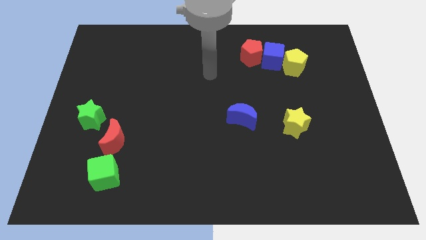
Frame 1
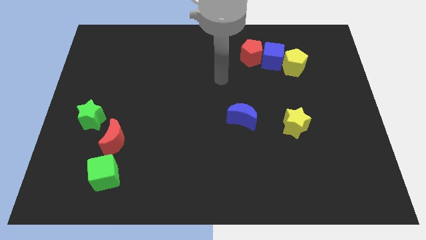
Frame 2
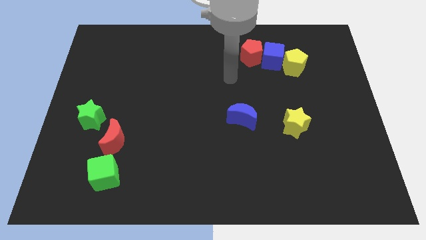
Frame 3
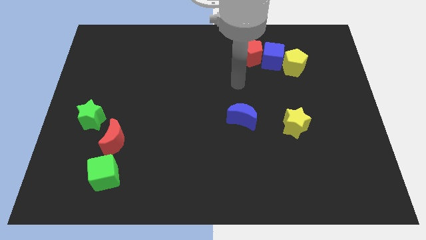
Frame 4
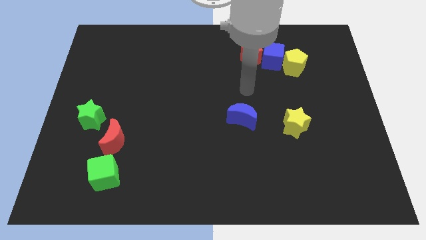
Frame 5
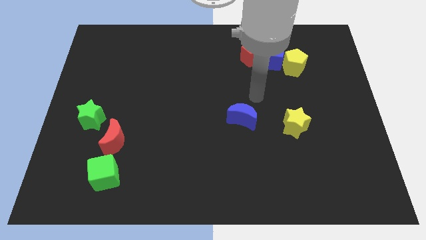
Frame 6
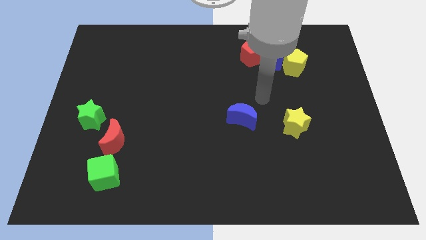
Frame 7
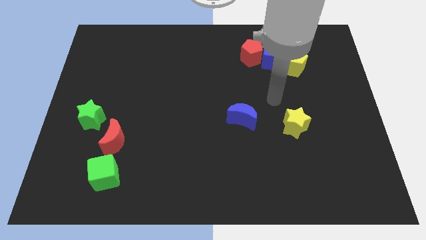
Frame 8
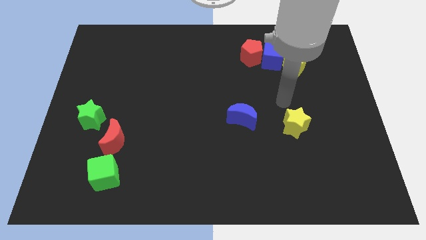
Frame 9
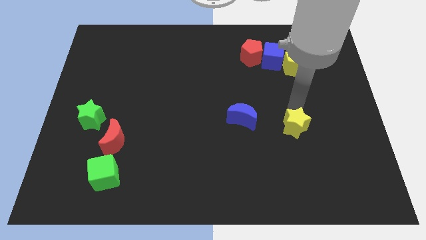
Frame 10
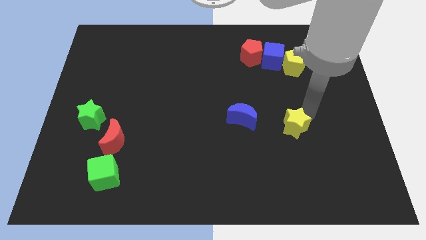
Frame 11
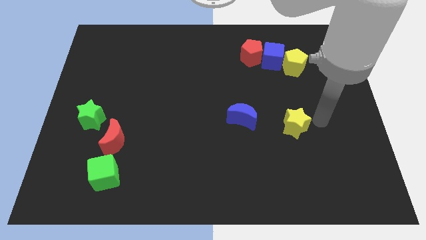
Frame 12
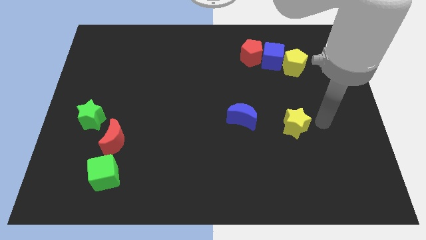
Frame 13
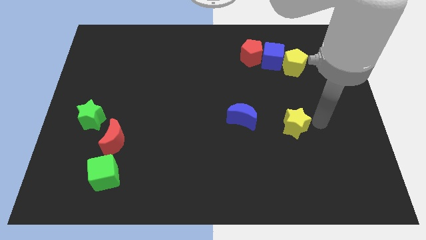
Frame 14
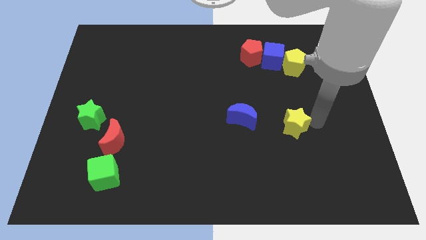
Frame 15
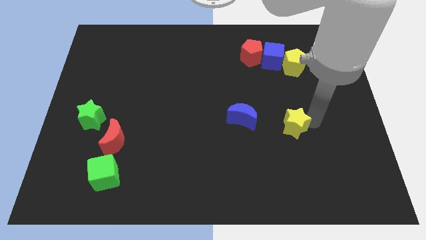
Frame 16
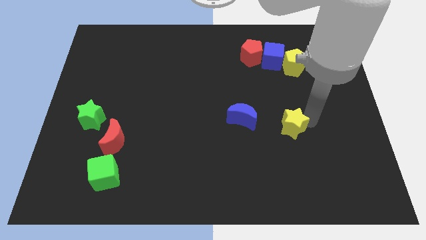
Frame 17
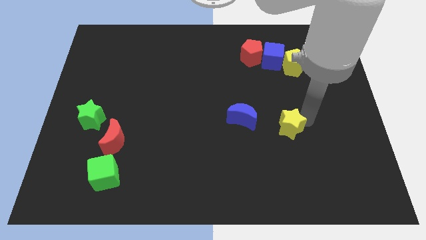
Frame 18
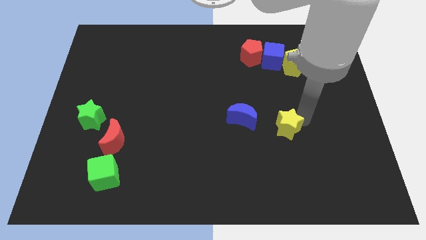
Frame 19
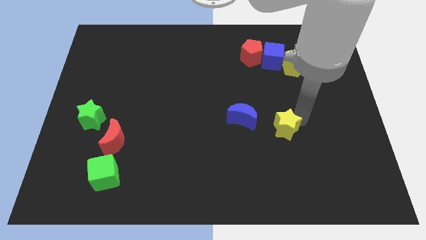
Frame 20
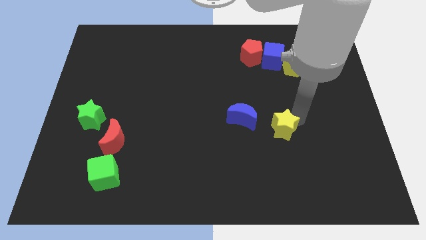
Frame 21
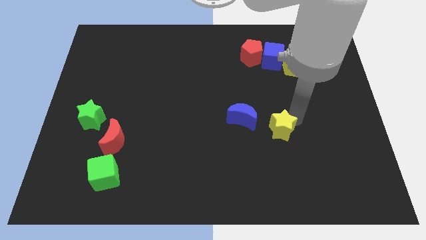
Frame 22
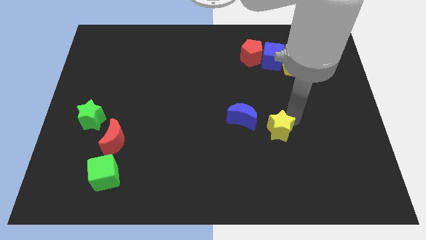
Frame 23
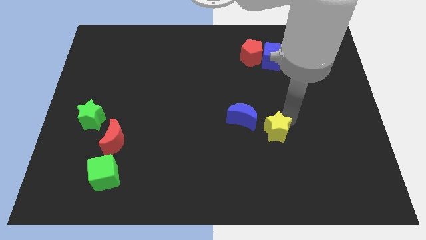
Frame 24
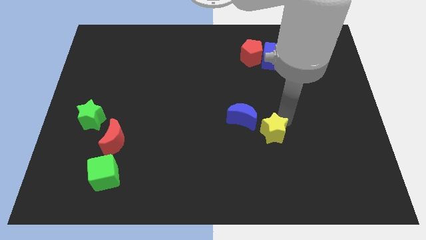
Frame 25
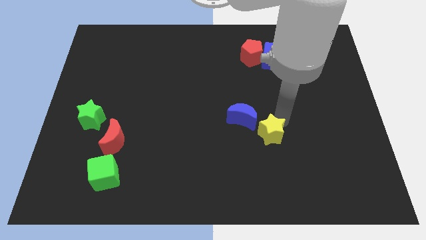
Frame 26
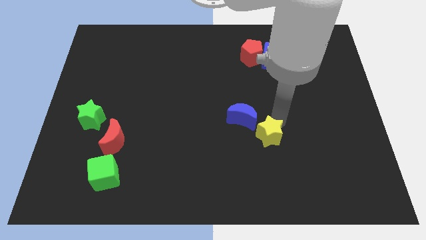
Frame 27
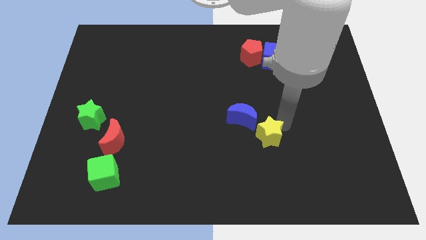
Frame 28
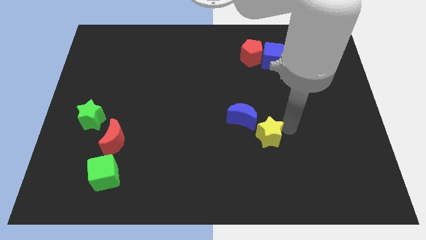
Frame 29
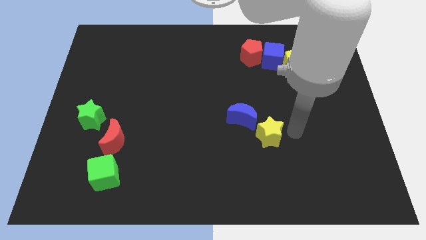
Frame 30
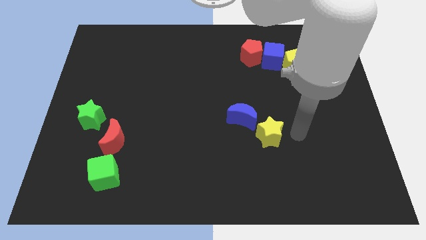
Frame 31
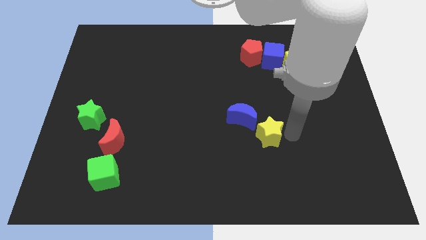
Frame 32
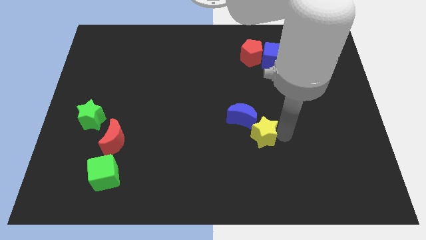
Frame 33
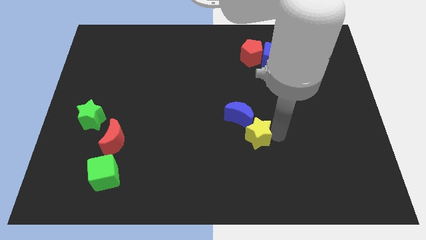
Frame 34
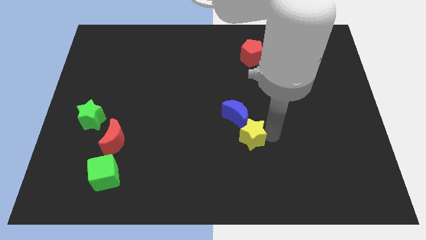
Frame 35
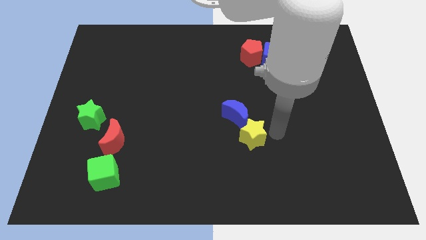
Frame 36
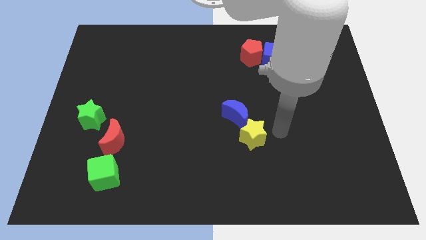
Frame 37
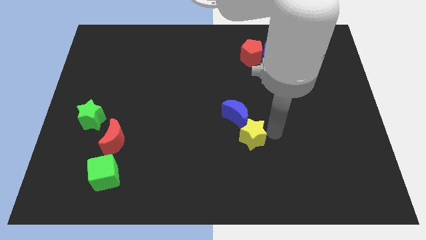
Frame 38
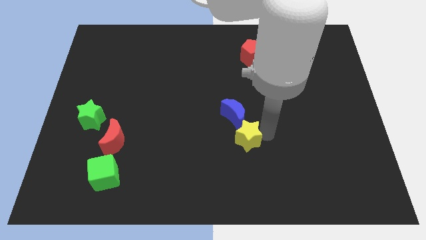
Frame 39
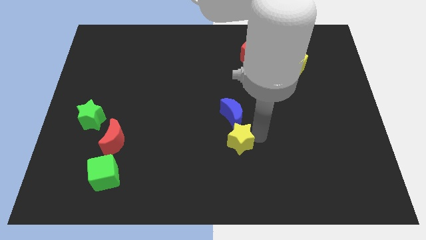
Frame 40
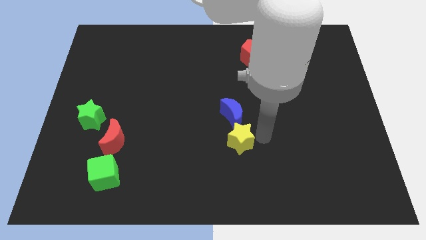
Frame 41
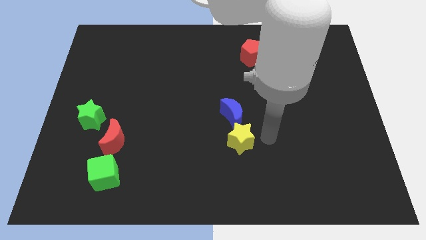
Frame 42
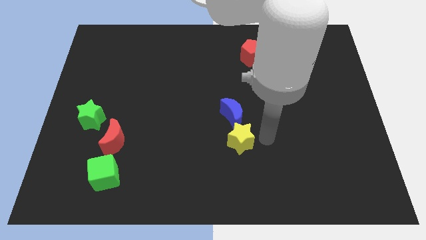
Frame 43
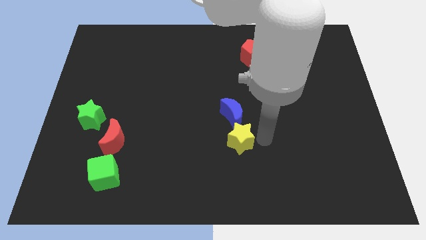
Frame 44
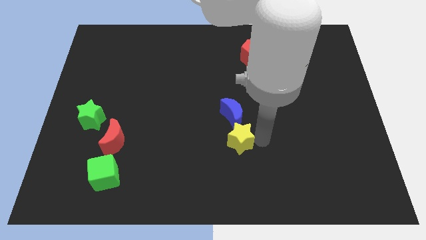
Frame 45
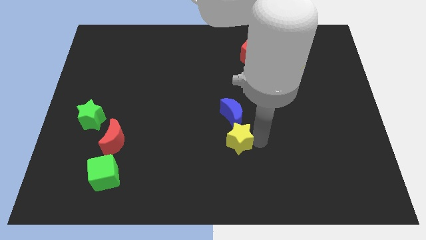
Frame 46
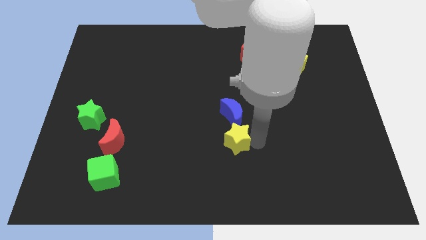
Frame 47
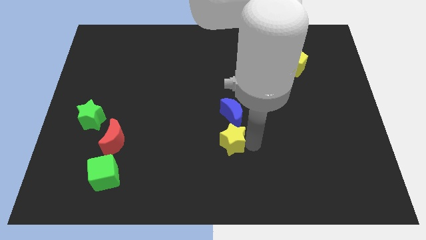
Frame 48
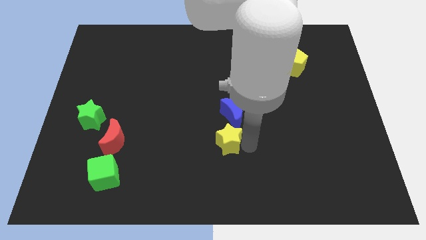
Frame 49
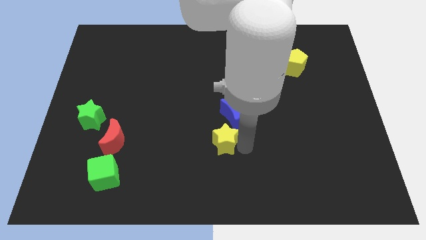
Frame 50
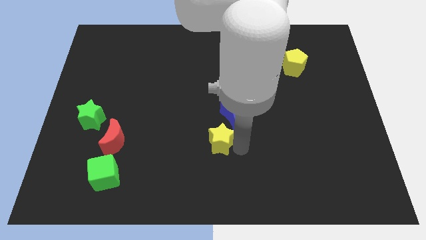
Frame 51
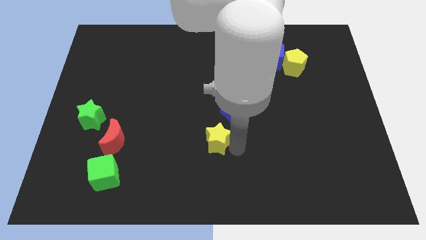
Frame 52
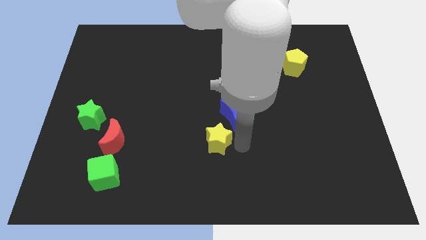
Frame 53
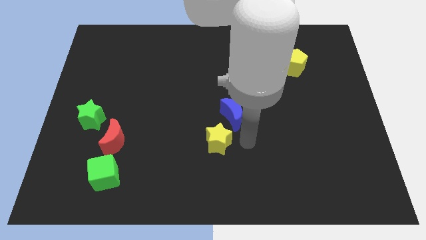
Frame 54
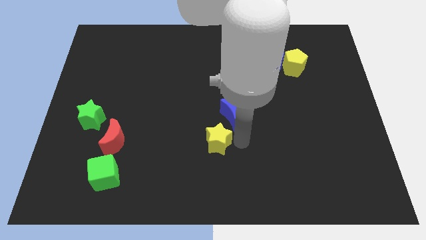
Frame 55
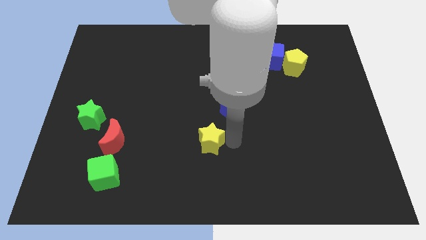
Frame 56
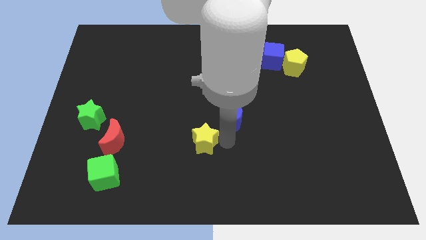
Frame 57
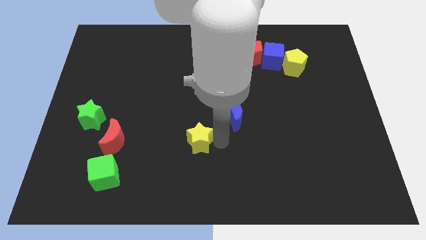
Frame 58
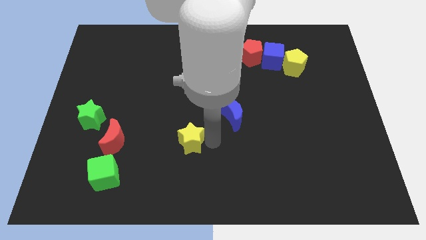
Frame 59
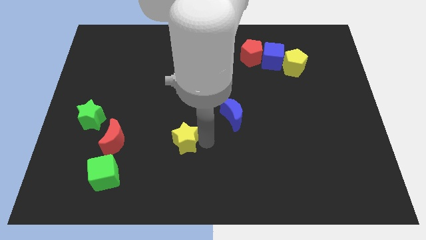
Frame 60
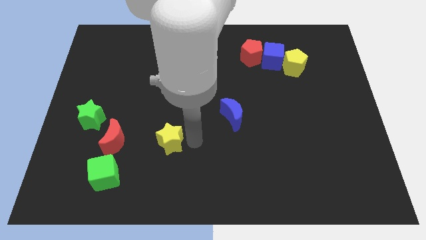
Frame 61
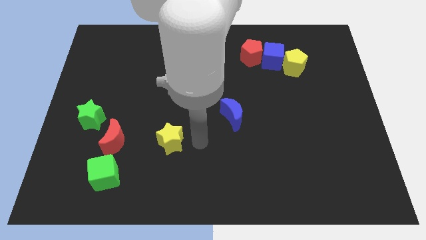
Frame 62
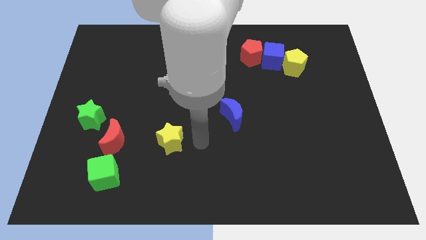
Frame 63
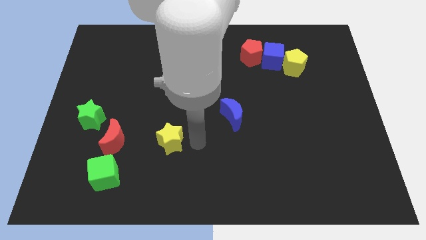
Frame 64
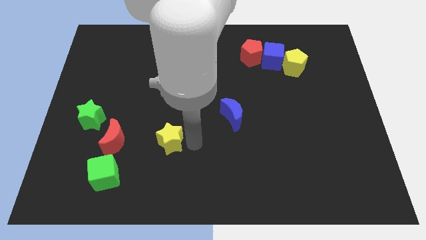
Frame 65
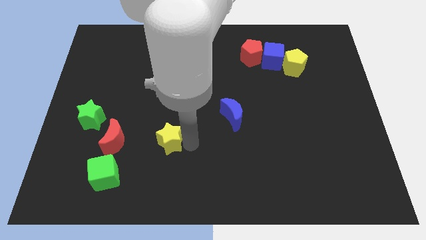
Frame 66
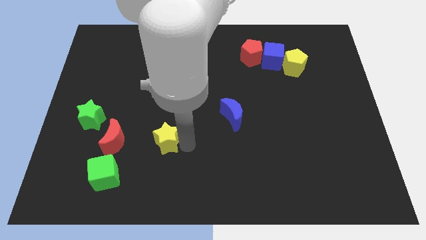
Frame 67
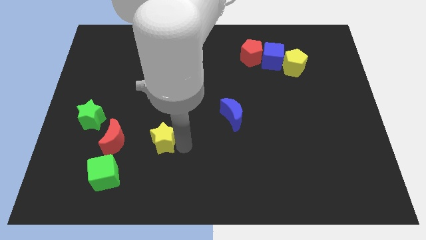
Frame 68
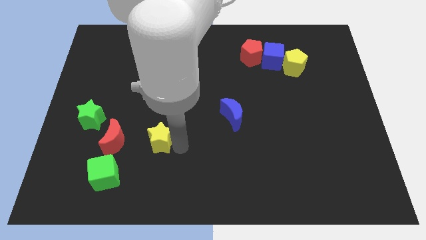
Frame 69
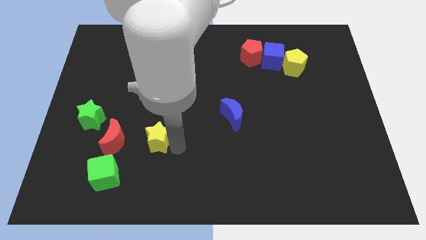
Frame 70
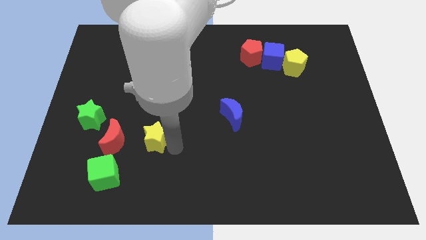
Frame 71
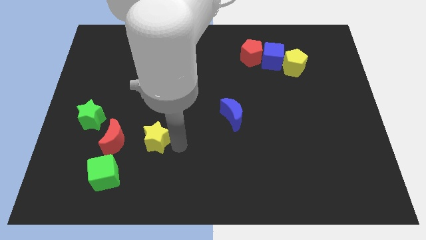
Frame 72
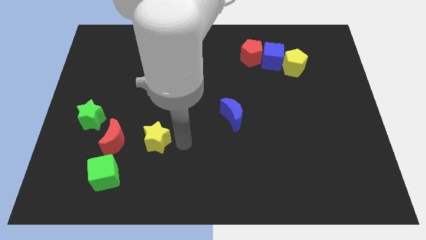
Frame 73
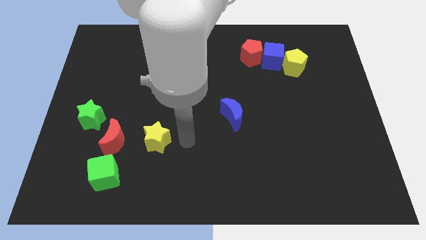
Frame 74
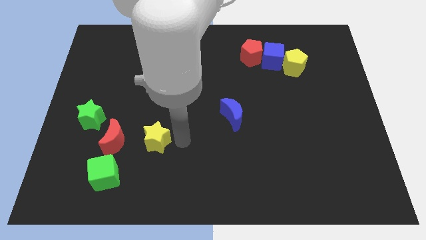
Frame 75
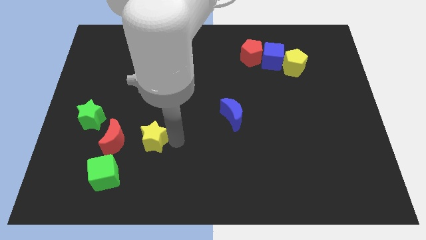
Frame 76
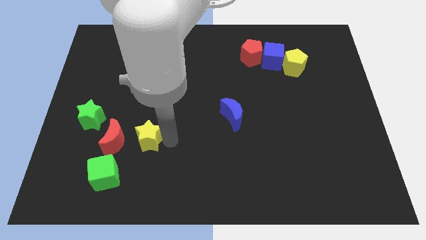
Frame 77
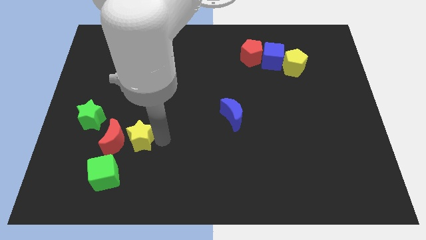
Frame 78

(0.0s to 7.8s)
put the yellow star to the red moon
